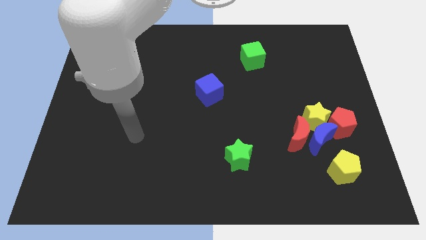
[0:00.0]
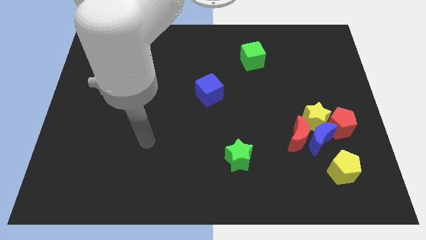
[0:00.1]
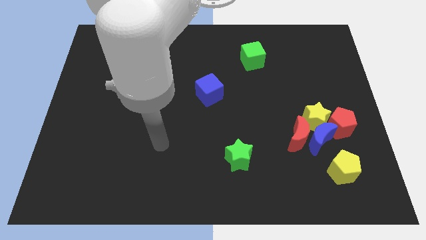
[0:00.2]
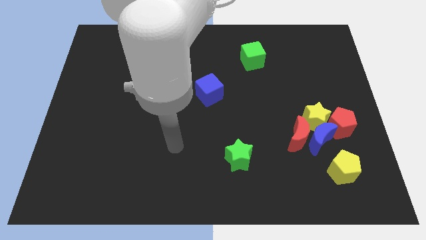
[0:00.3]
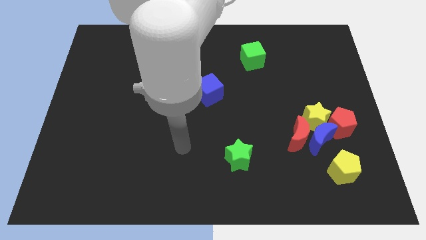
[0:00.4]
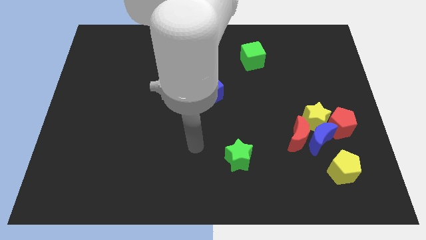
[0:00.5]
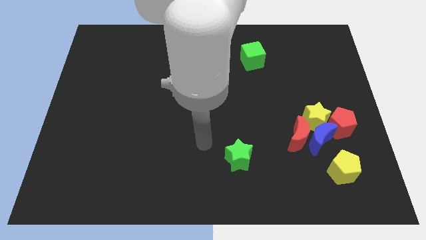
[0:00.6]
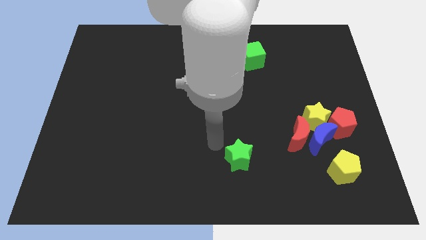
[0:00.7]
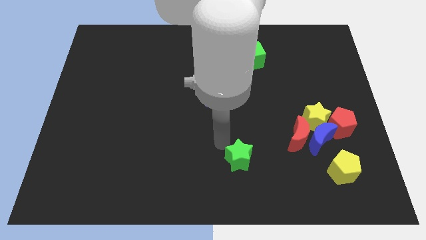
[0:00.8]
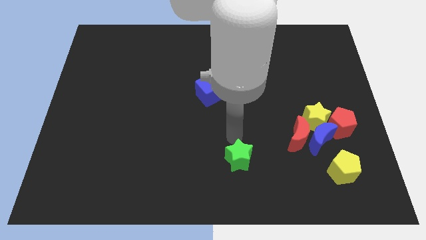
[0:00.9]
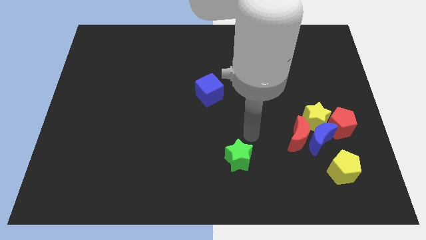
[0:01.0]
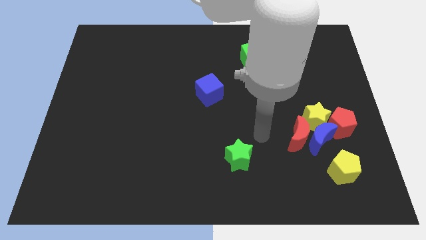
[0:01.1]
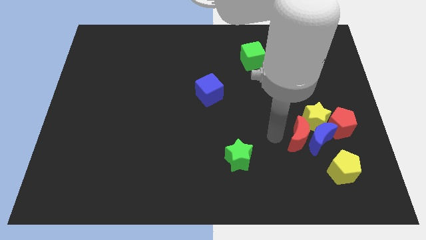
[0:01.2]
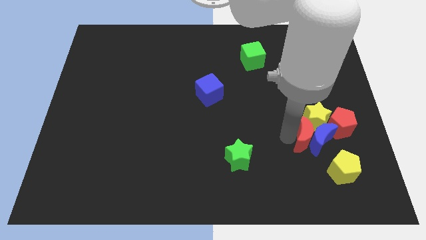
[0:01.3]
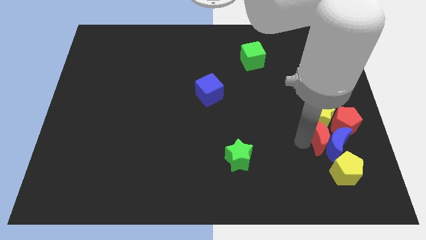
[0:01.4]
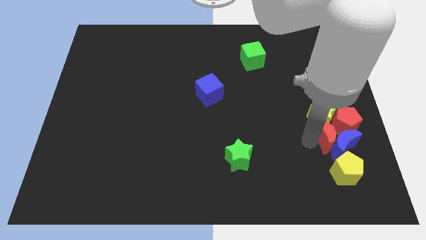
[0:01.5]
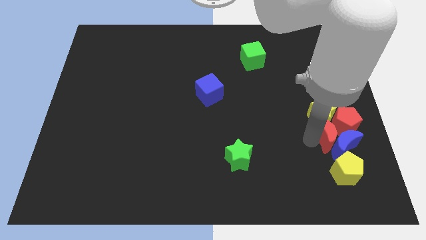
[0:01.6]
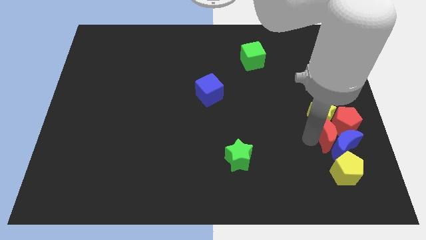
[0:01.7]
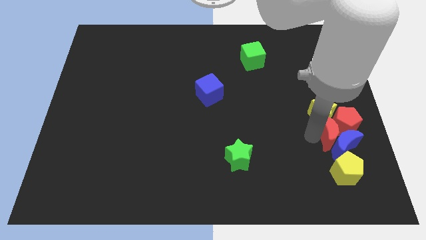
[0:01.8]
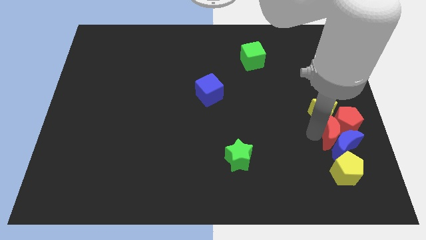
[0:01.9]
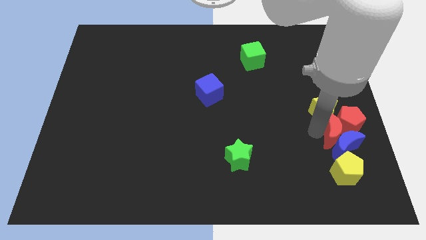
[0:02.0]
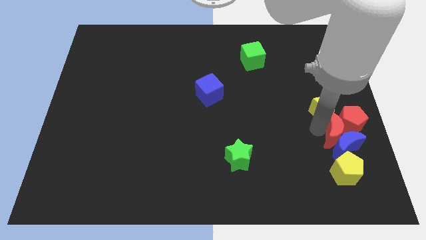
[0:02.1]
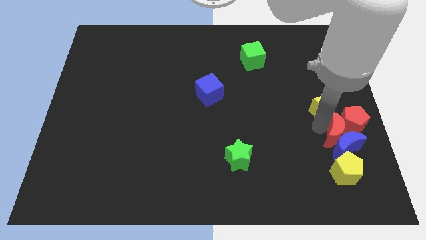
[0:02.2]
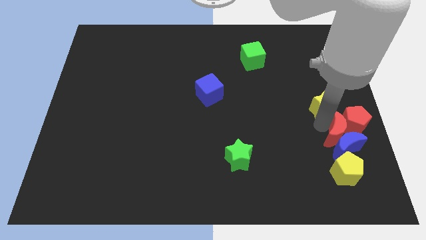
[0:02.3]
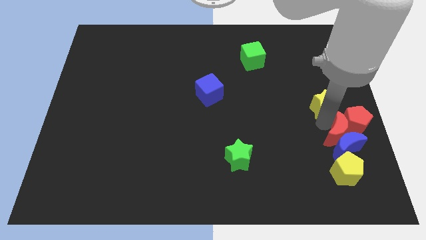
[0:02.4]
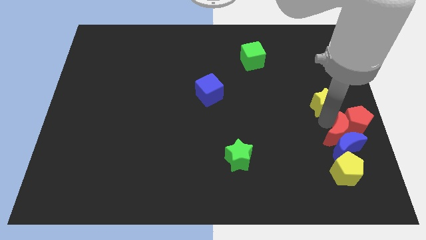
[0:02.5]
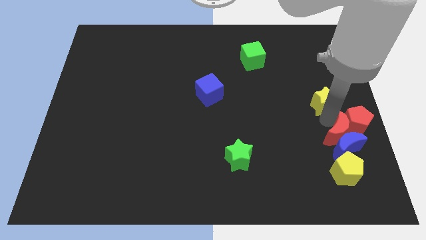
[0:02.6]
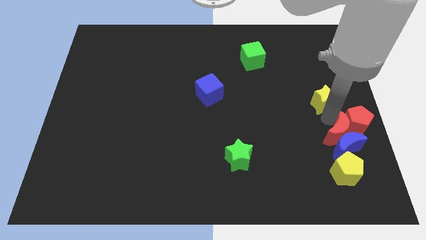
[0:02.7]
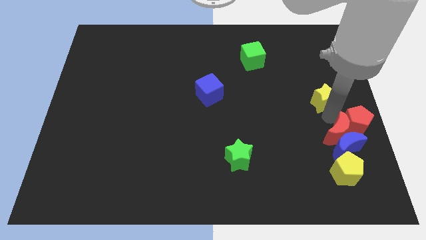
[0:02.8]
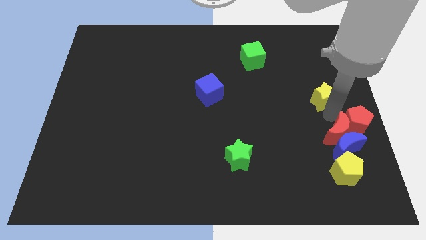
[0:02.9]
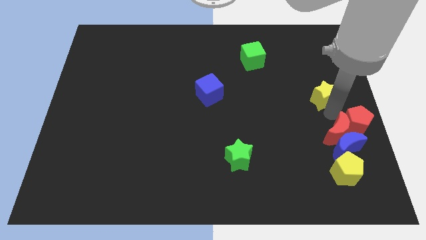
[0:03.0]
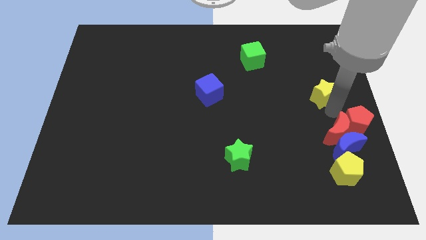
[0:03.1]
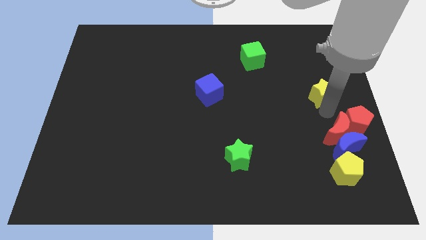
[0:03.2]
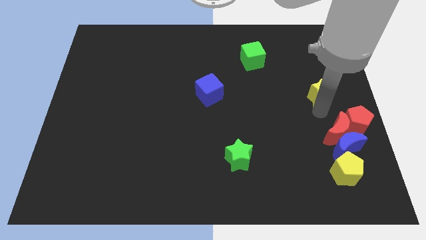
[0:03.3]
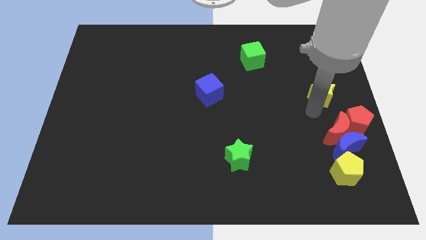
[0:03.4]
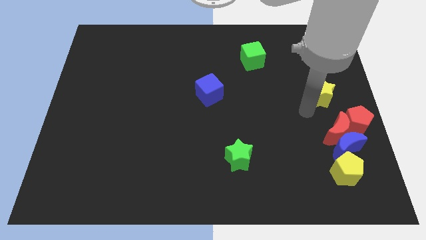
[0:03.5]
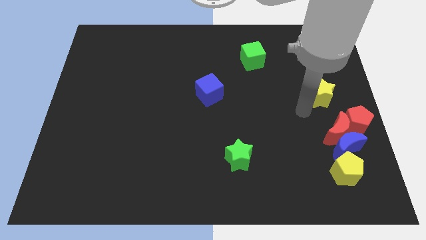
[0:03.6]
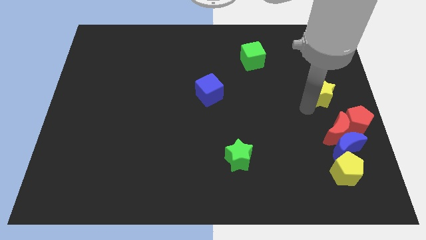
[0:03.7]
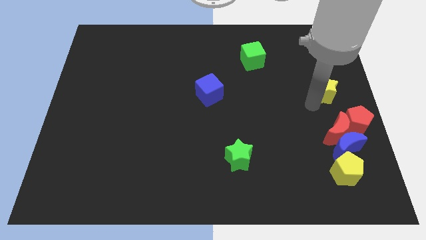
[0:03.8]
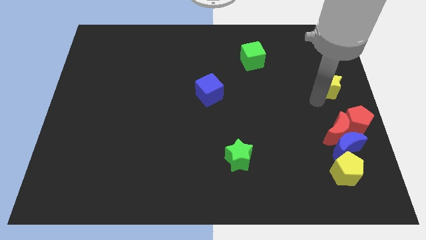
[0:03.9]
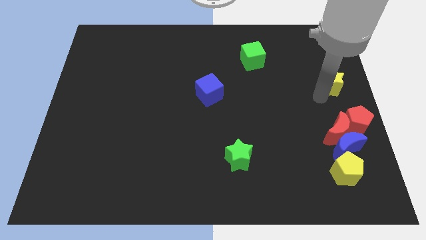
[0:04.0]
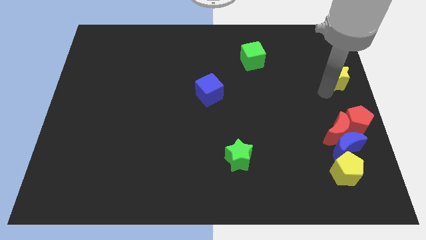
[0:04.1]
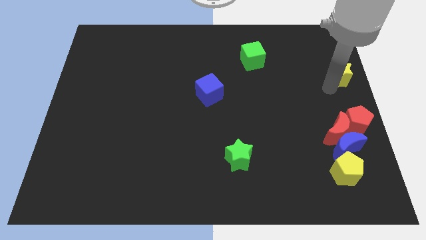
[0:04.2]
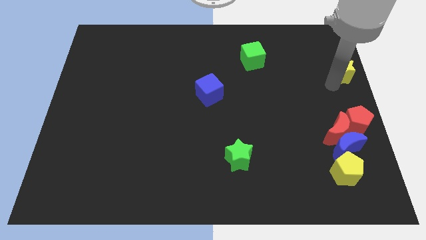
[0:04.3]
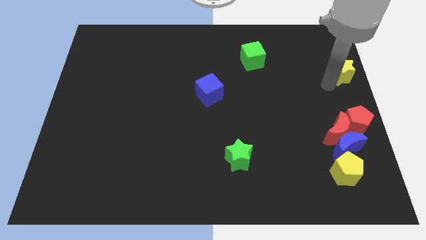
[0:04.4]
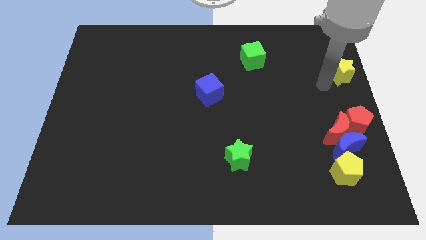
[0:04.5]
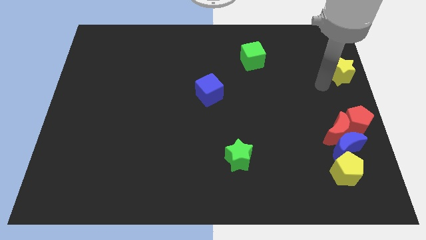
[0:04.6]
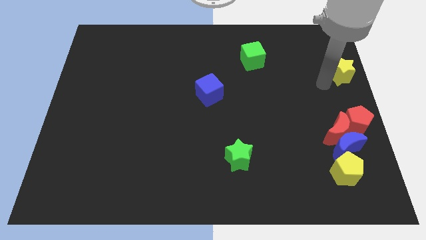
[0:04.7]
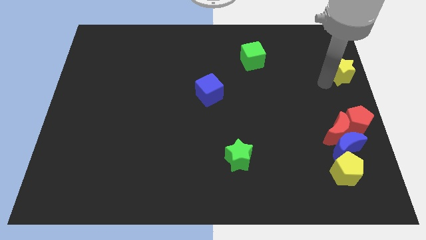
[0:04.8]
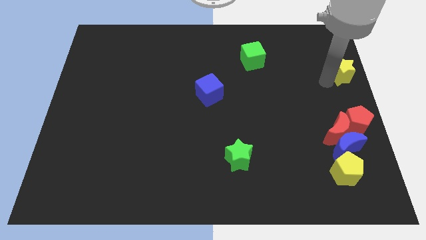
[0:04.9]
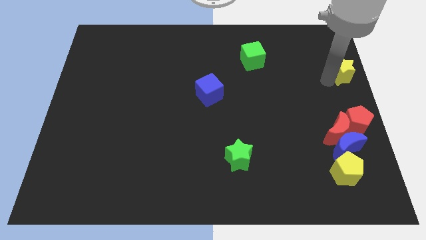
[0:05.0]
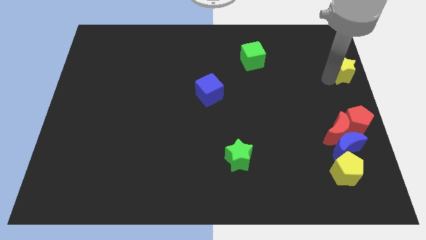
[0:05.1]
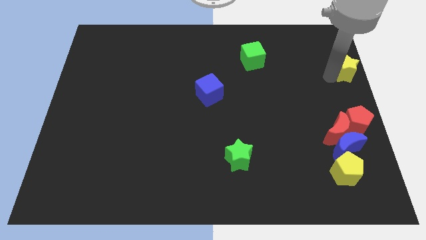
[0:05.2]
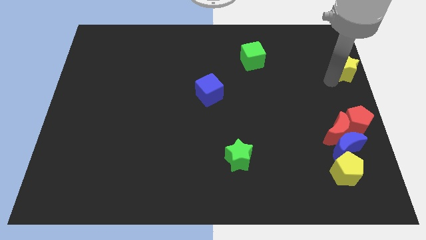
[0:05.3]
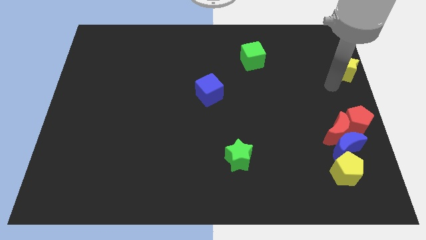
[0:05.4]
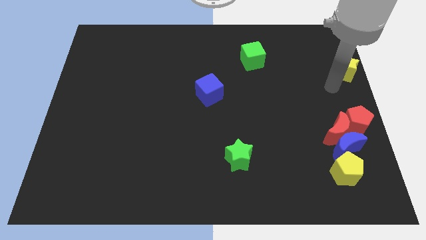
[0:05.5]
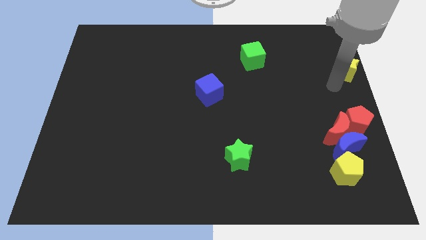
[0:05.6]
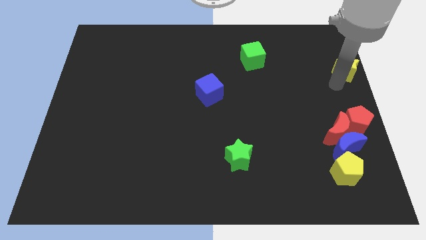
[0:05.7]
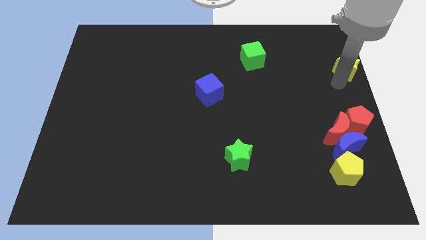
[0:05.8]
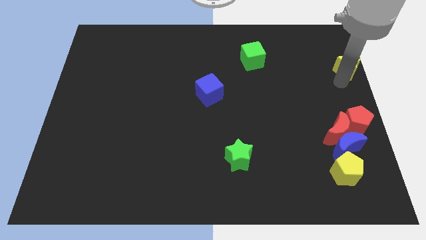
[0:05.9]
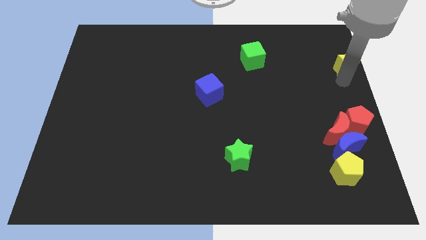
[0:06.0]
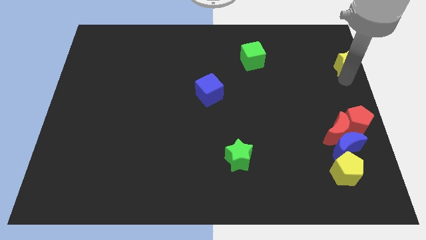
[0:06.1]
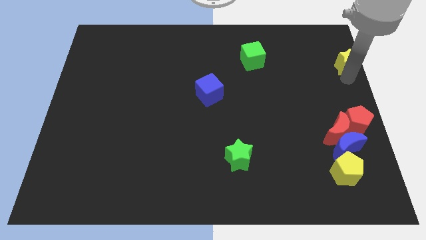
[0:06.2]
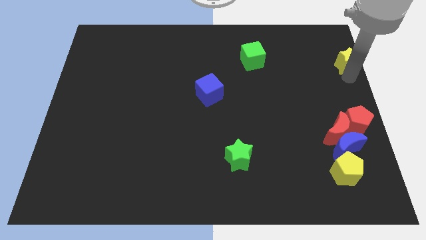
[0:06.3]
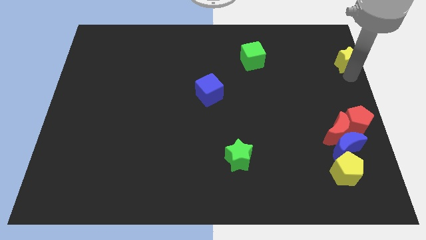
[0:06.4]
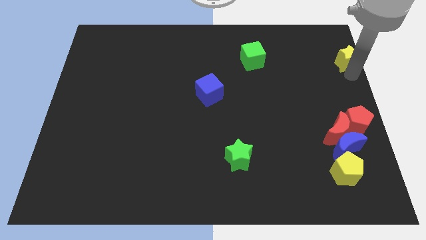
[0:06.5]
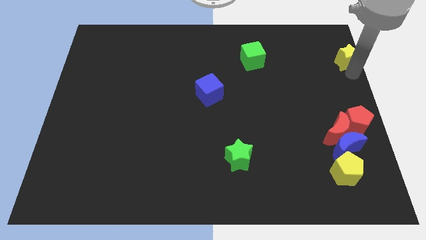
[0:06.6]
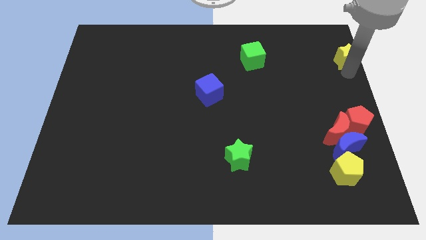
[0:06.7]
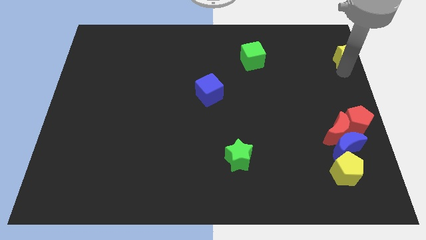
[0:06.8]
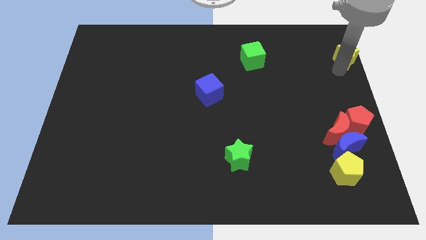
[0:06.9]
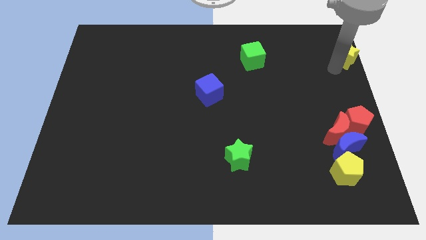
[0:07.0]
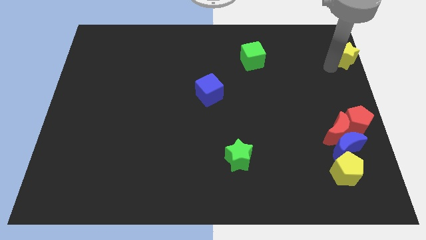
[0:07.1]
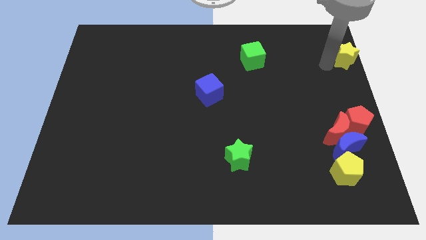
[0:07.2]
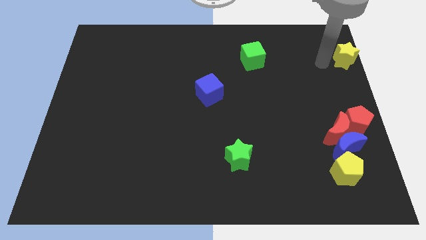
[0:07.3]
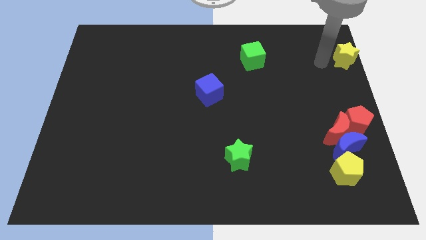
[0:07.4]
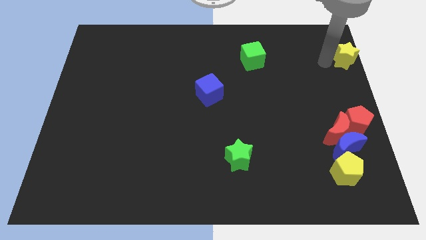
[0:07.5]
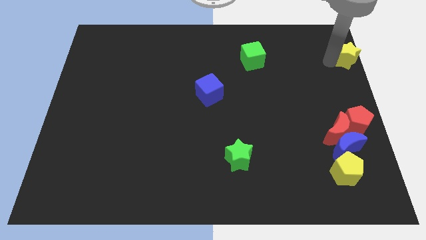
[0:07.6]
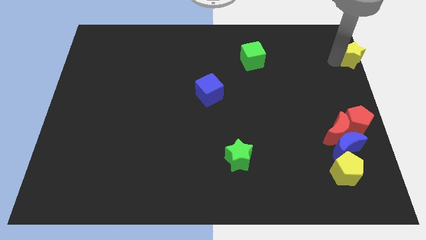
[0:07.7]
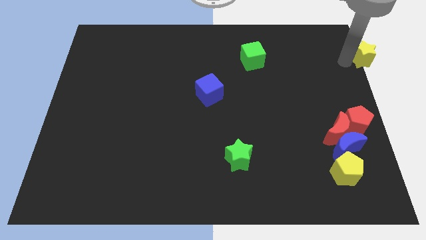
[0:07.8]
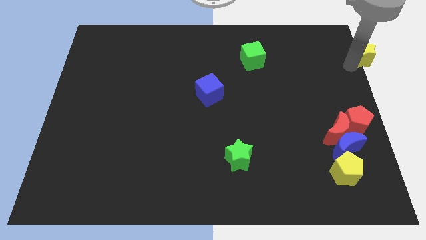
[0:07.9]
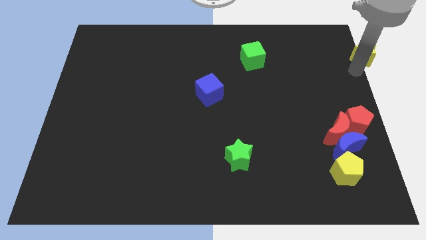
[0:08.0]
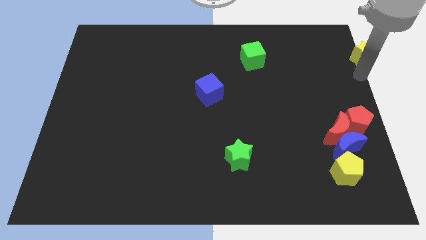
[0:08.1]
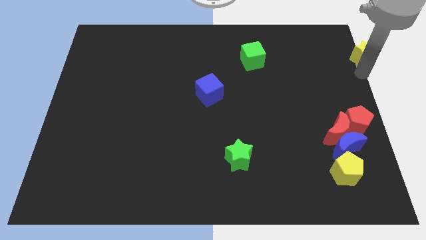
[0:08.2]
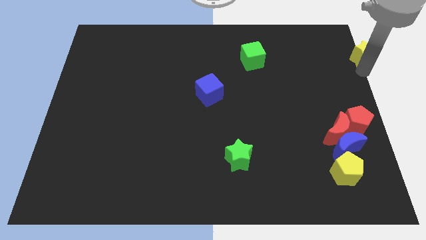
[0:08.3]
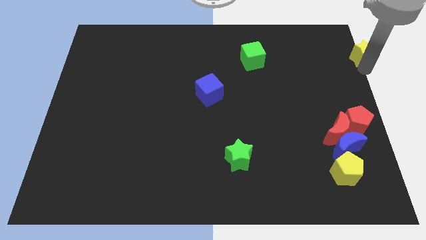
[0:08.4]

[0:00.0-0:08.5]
move the yellow star to the top right of the board
